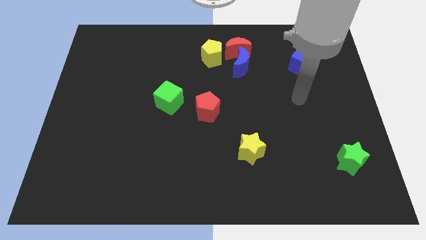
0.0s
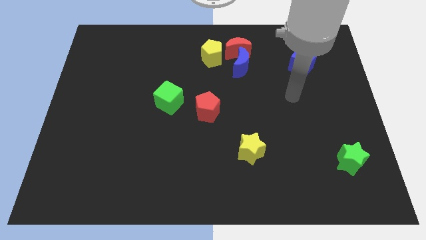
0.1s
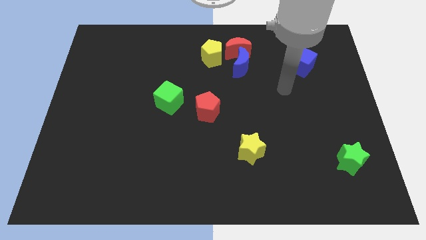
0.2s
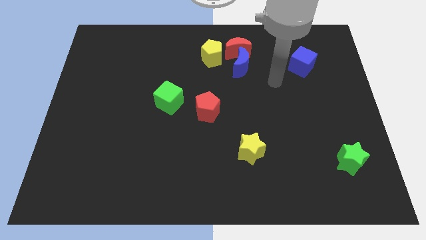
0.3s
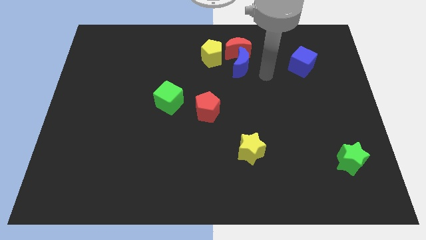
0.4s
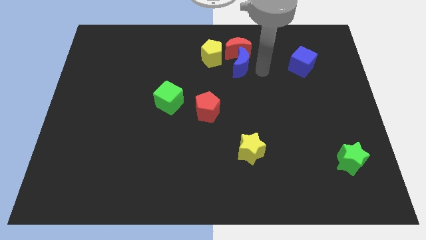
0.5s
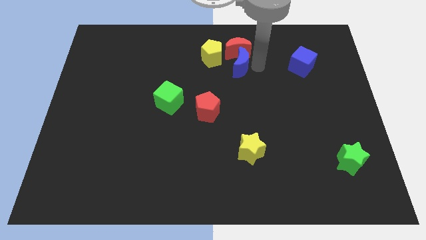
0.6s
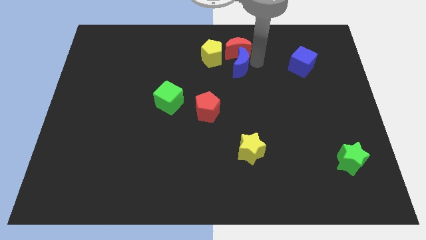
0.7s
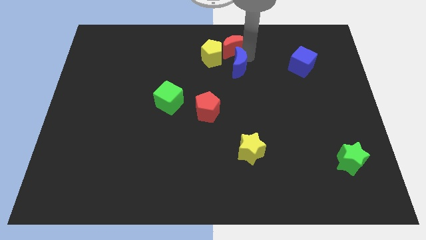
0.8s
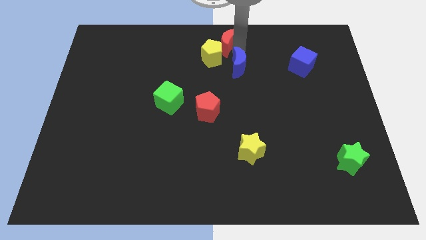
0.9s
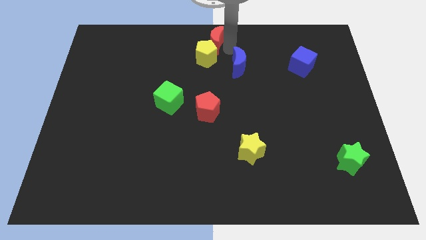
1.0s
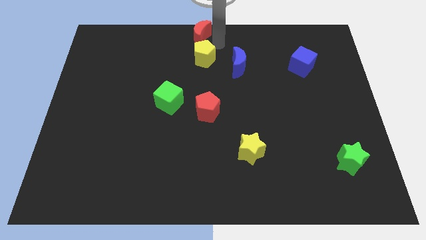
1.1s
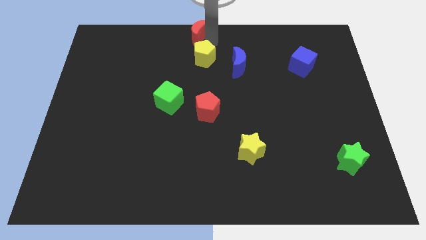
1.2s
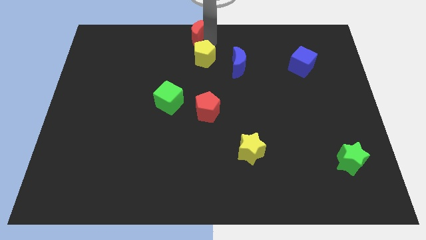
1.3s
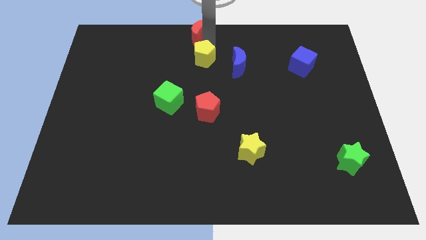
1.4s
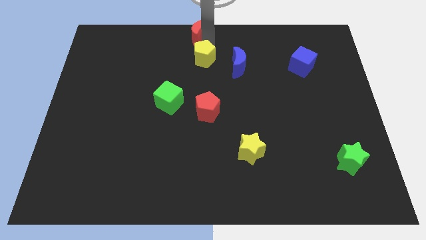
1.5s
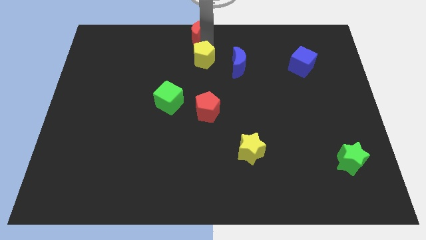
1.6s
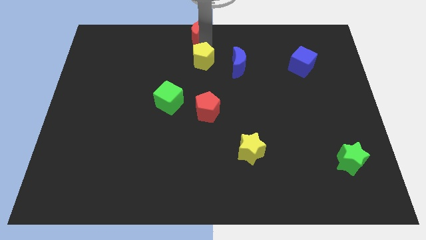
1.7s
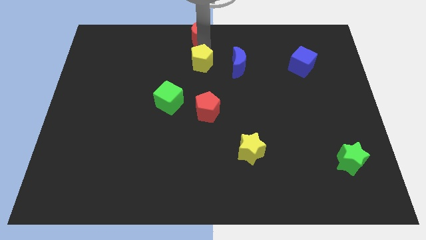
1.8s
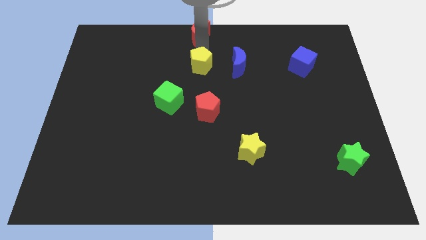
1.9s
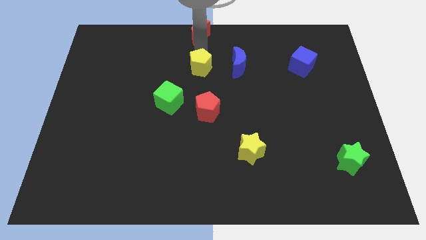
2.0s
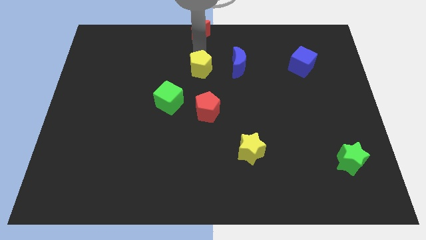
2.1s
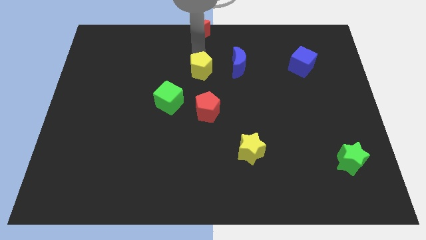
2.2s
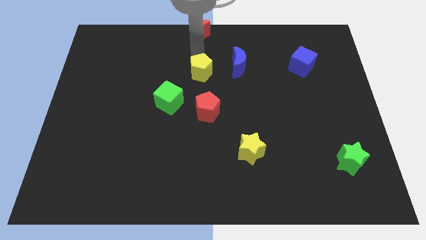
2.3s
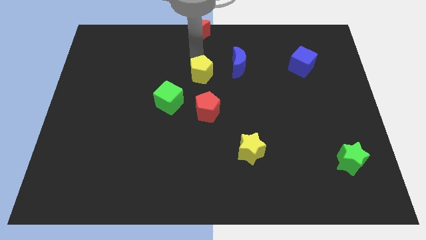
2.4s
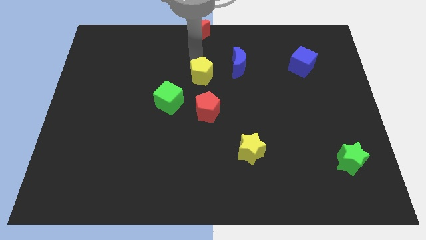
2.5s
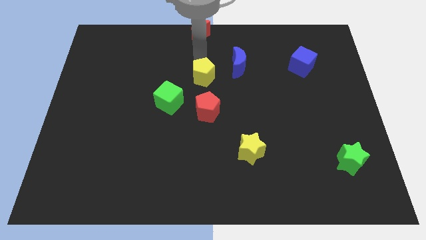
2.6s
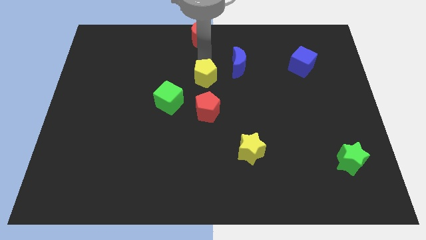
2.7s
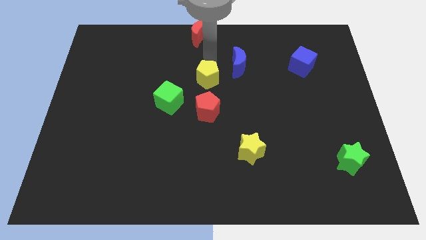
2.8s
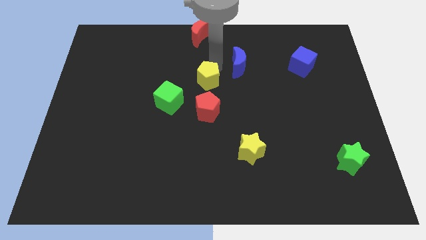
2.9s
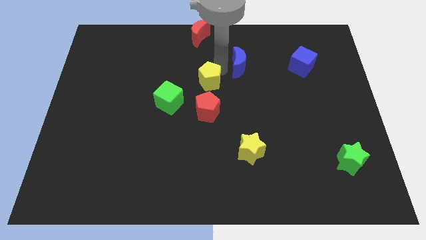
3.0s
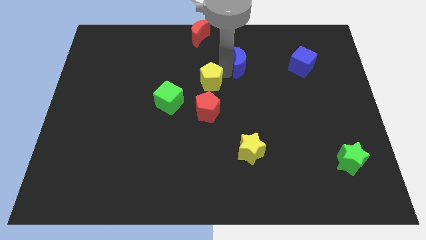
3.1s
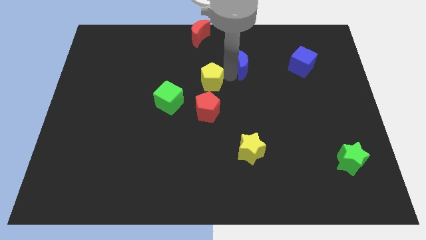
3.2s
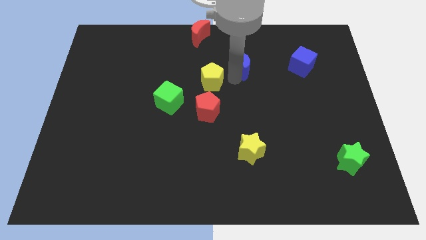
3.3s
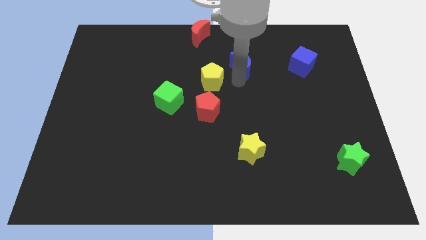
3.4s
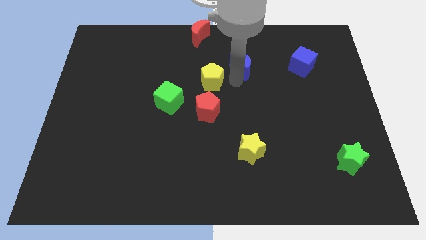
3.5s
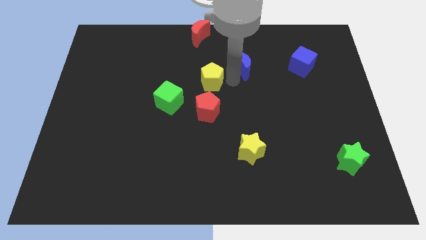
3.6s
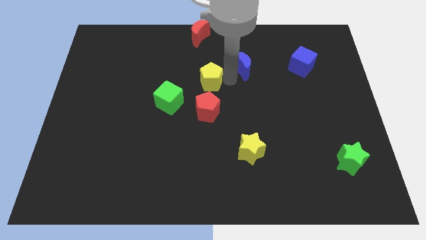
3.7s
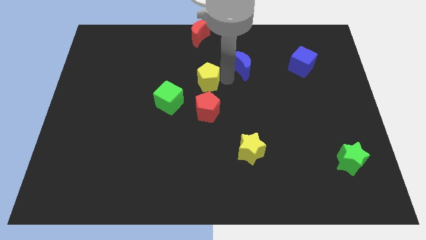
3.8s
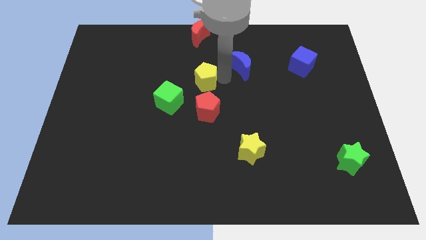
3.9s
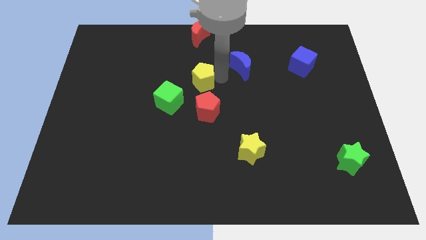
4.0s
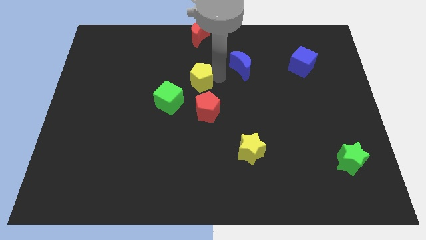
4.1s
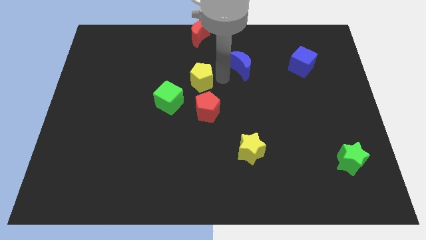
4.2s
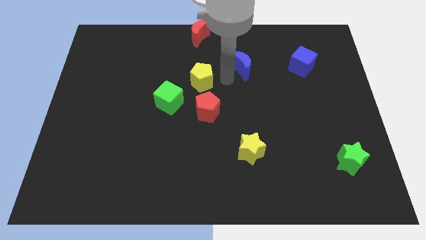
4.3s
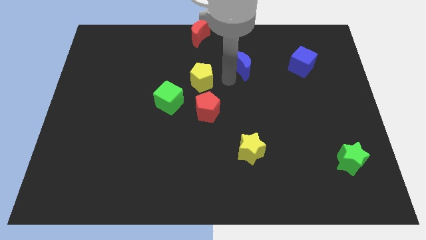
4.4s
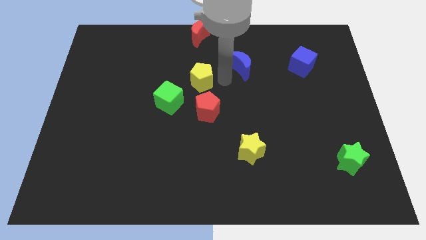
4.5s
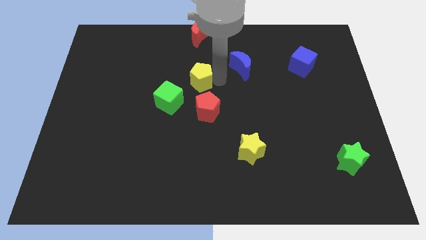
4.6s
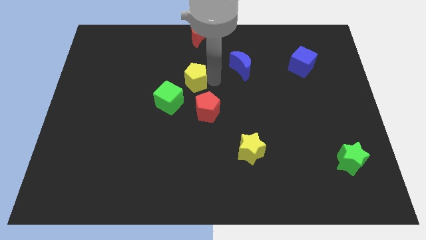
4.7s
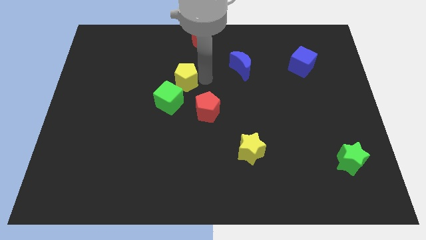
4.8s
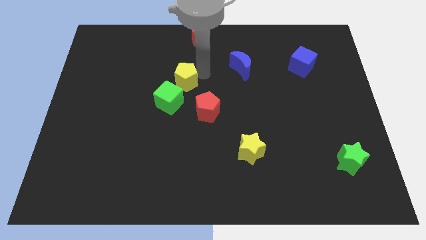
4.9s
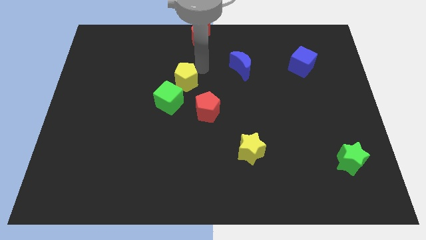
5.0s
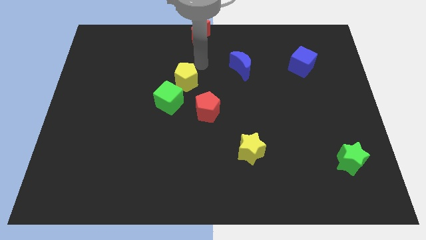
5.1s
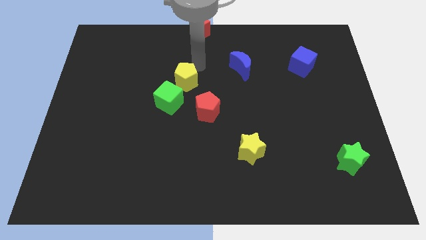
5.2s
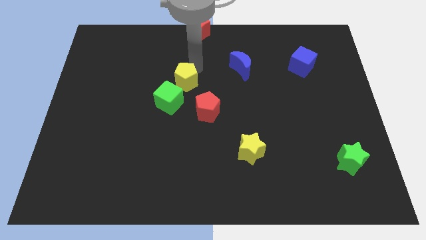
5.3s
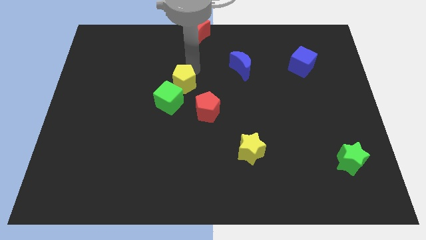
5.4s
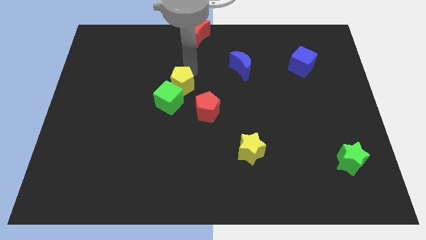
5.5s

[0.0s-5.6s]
move the yellow pentagon close to the green cube

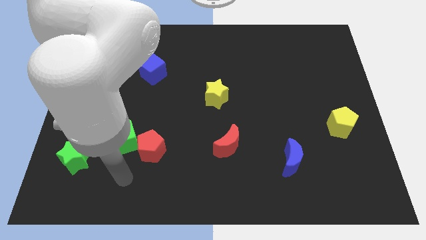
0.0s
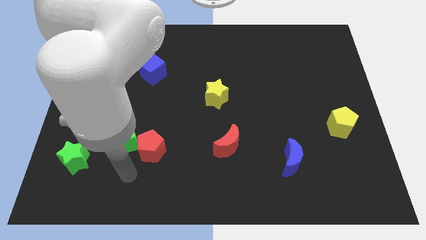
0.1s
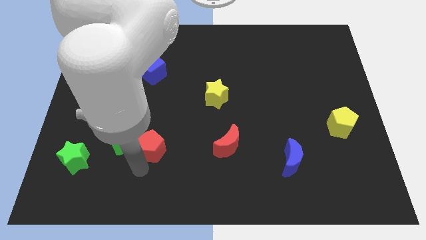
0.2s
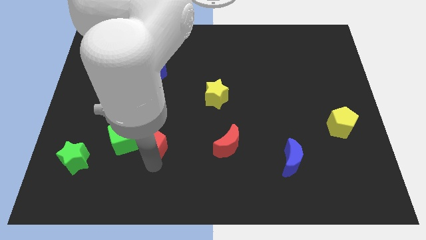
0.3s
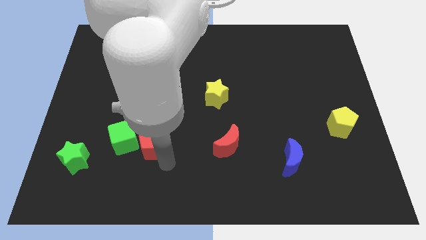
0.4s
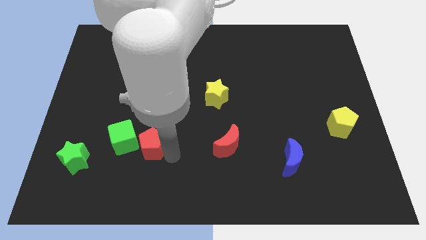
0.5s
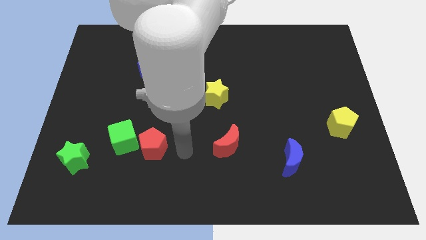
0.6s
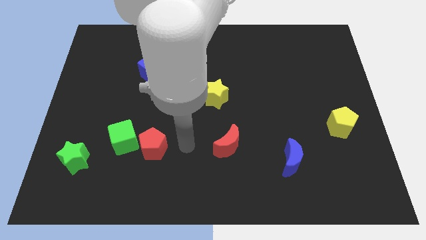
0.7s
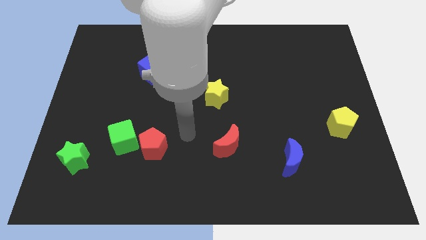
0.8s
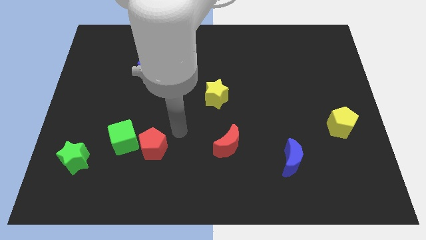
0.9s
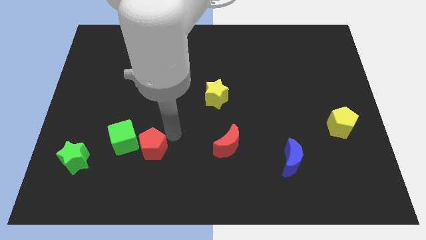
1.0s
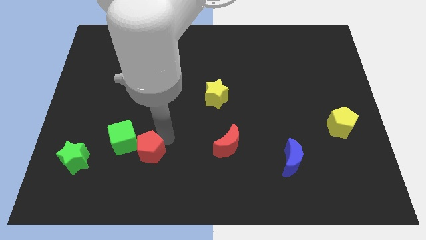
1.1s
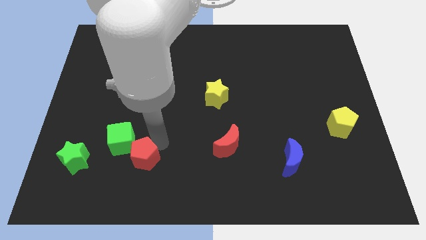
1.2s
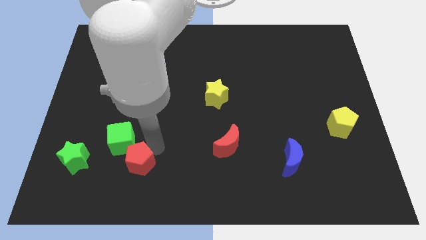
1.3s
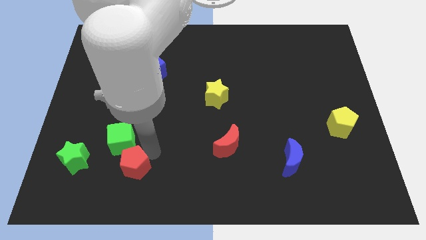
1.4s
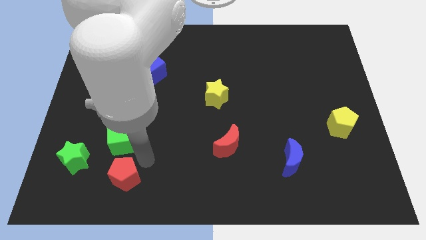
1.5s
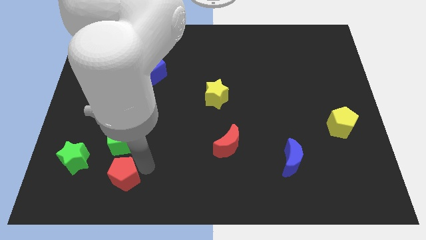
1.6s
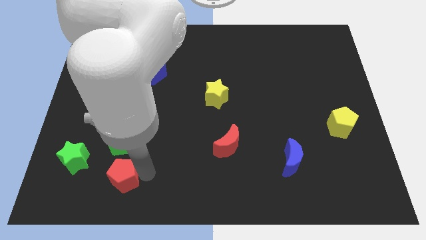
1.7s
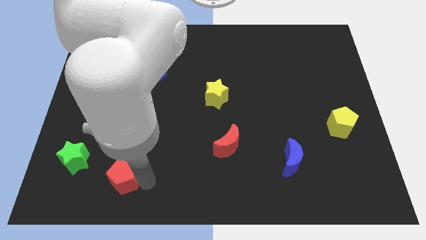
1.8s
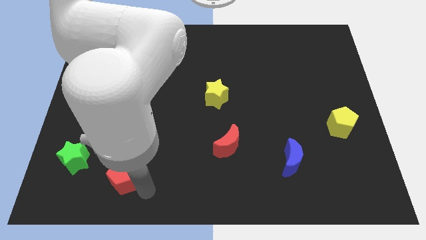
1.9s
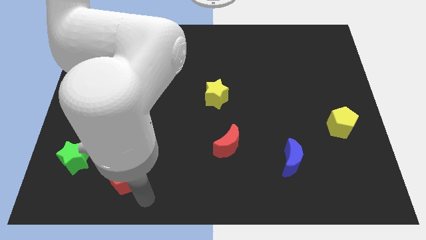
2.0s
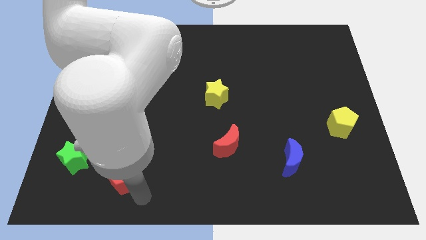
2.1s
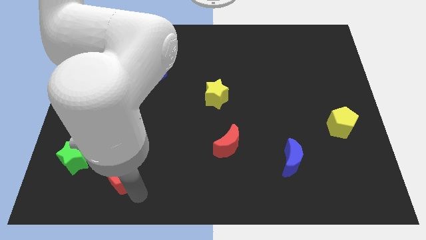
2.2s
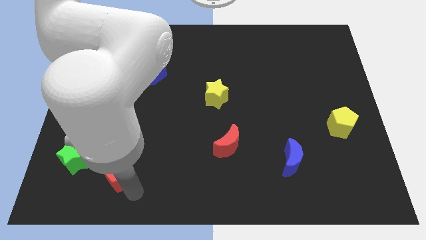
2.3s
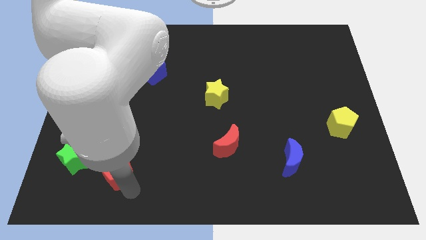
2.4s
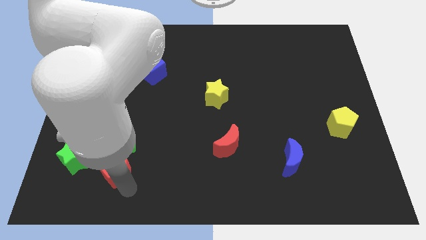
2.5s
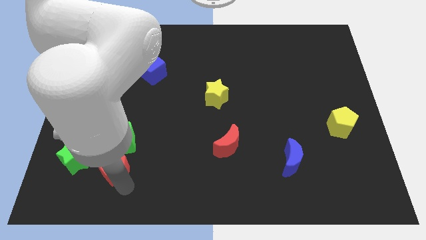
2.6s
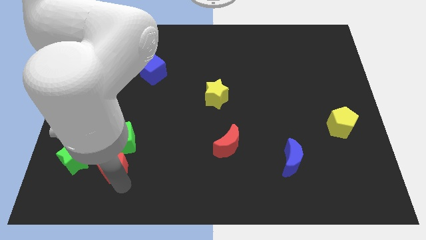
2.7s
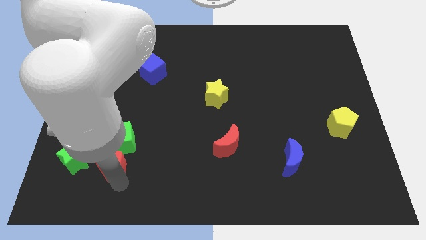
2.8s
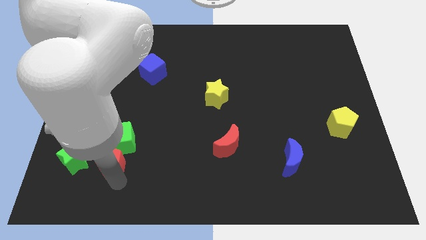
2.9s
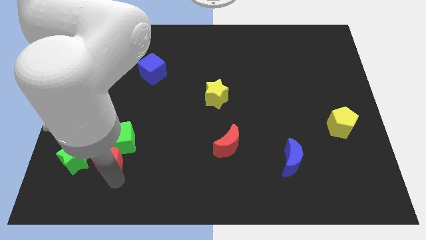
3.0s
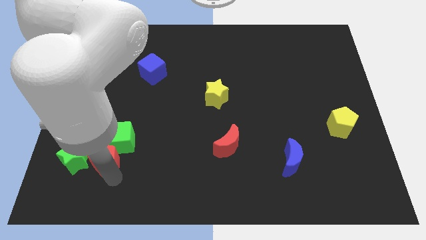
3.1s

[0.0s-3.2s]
push the red pentagon towards the green star
